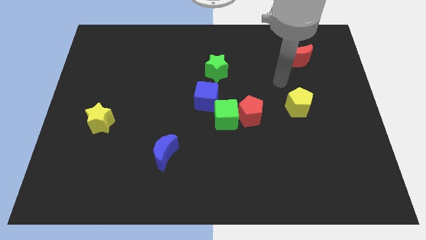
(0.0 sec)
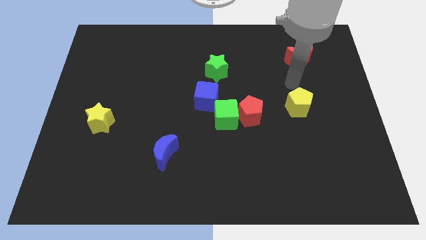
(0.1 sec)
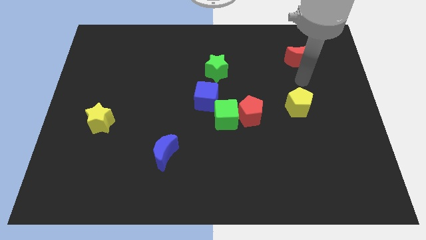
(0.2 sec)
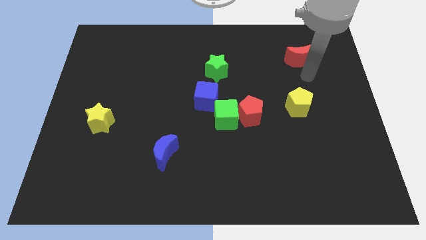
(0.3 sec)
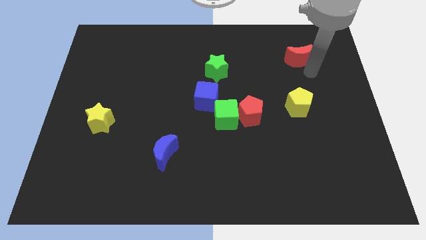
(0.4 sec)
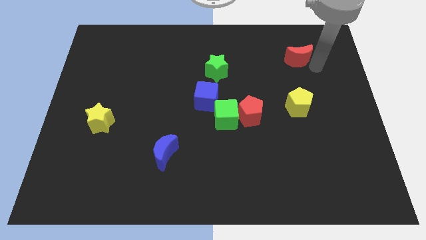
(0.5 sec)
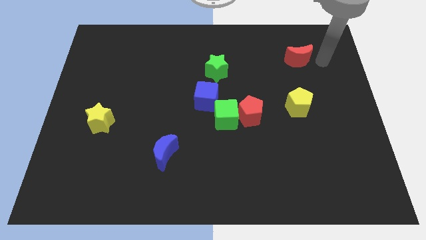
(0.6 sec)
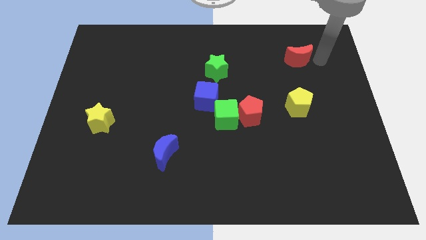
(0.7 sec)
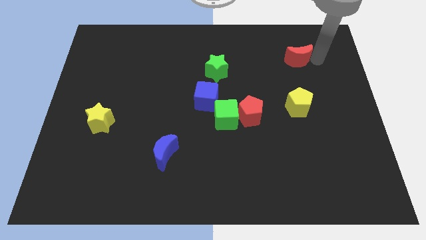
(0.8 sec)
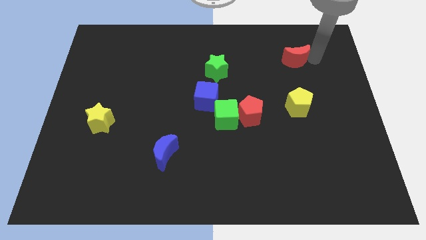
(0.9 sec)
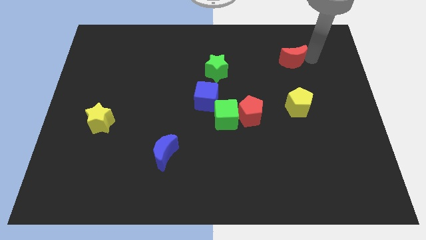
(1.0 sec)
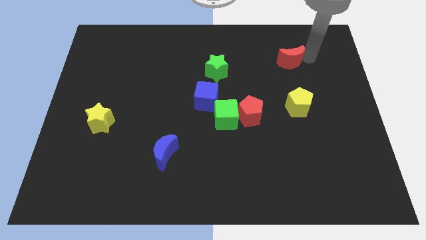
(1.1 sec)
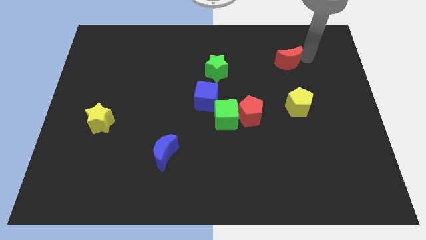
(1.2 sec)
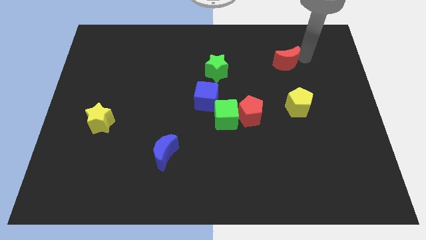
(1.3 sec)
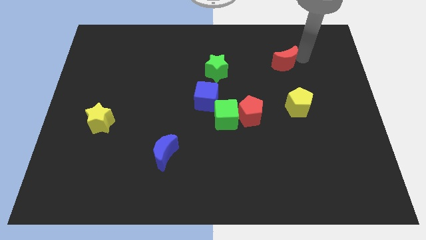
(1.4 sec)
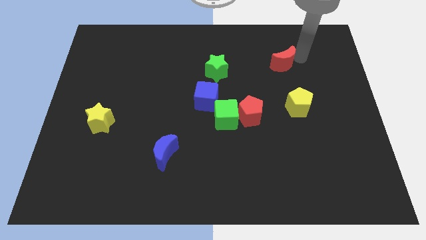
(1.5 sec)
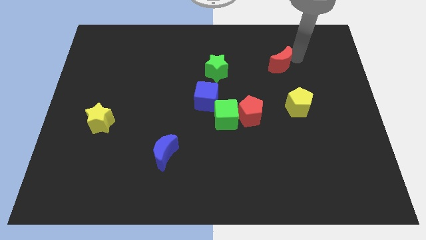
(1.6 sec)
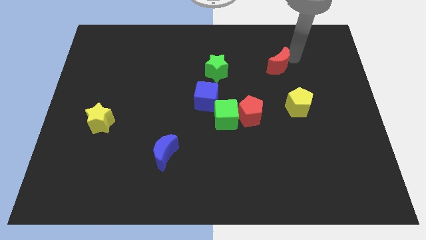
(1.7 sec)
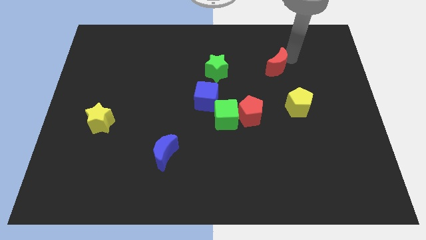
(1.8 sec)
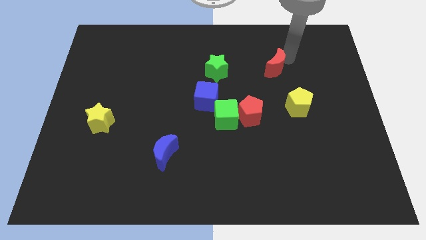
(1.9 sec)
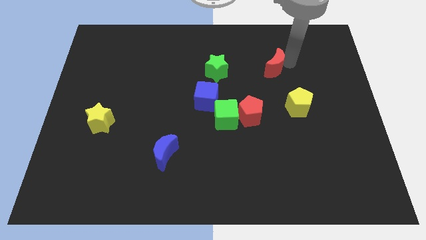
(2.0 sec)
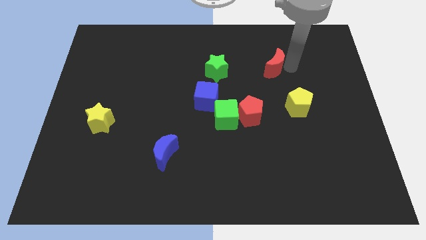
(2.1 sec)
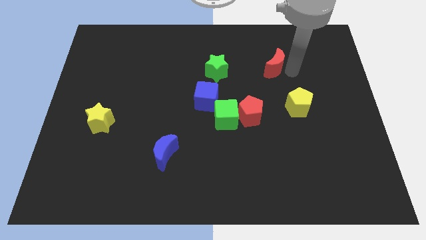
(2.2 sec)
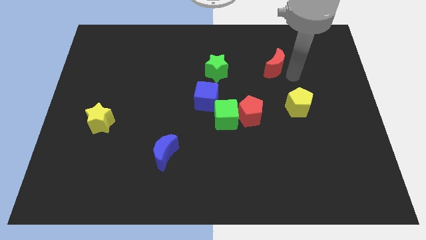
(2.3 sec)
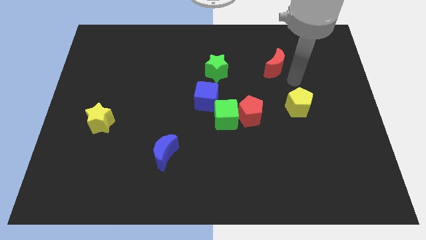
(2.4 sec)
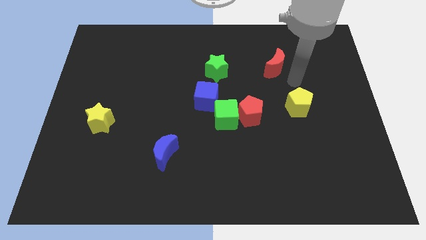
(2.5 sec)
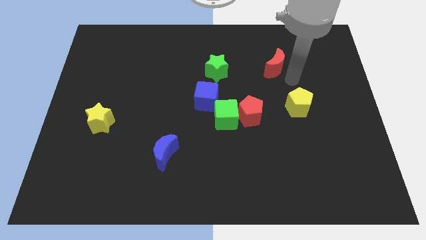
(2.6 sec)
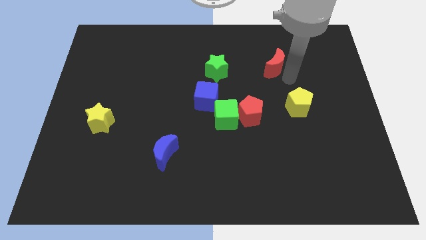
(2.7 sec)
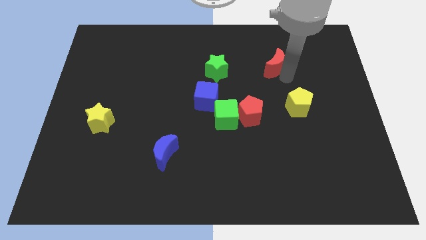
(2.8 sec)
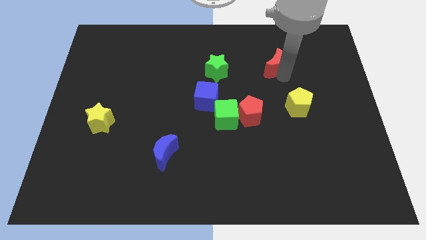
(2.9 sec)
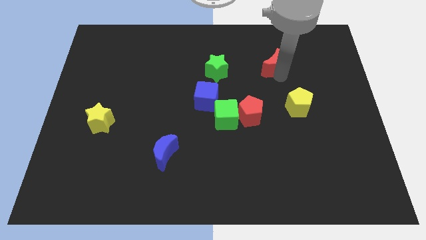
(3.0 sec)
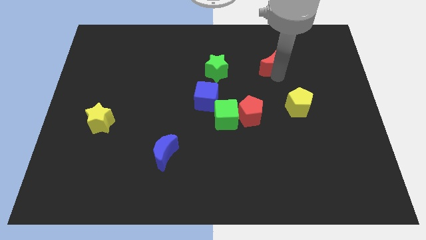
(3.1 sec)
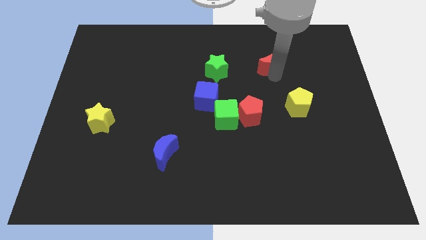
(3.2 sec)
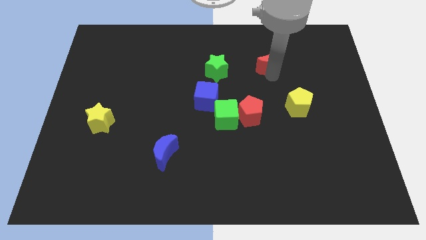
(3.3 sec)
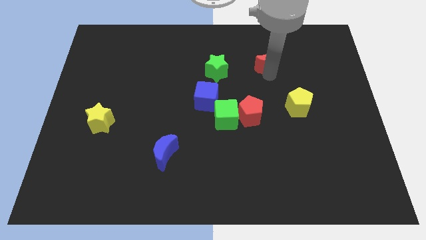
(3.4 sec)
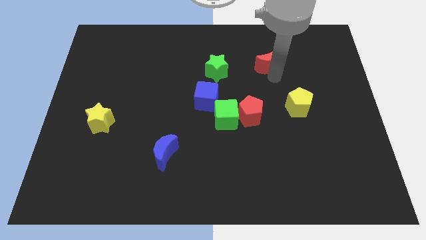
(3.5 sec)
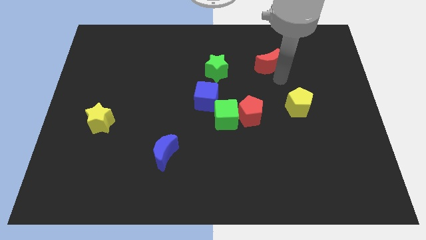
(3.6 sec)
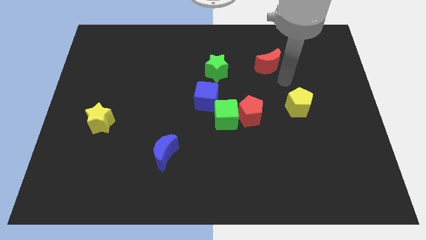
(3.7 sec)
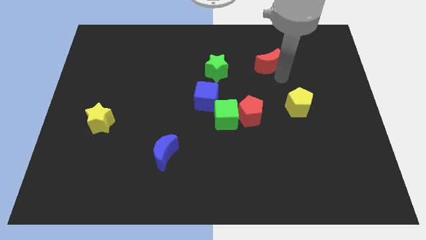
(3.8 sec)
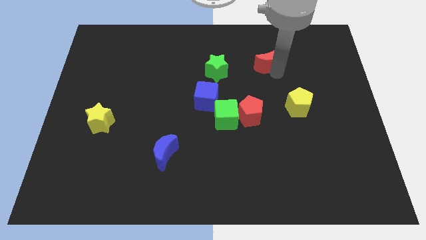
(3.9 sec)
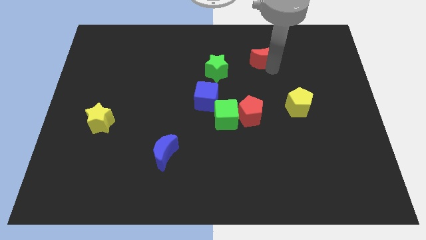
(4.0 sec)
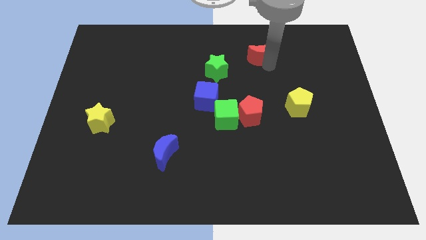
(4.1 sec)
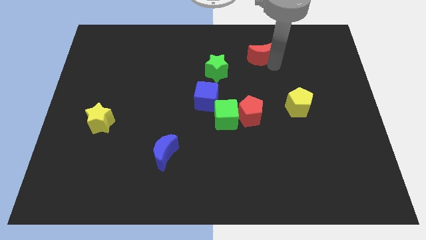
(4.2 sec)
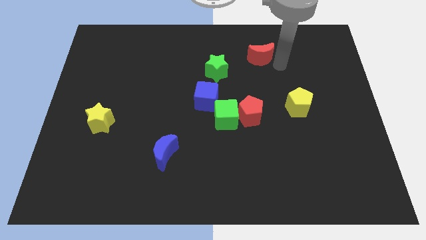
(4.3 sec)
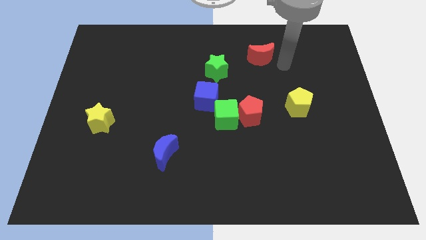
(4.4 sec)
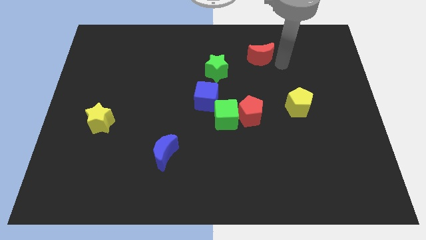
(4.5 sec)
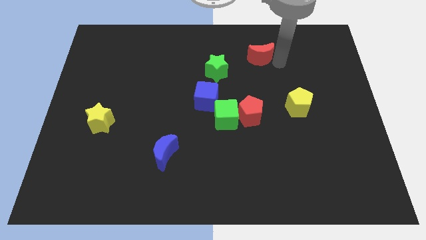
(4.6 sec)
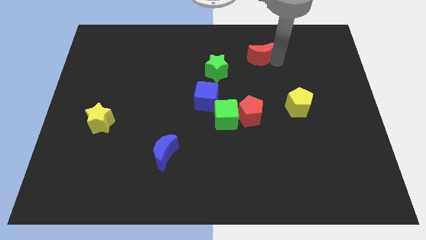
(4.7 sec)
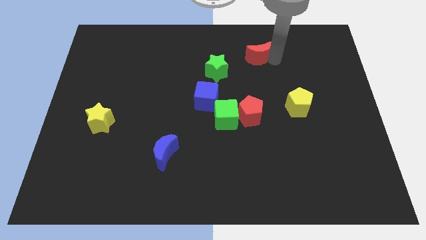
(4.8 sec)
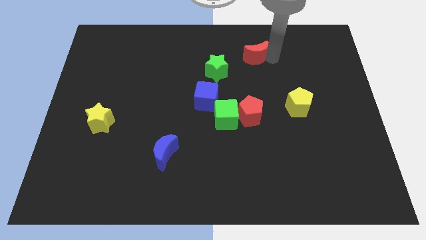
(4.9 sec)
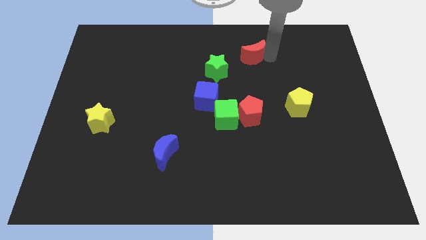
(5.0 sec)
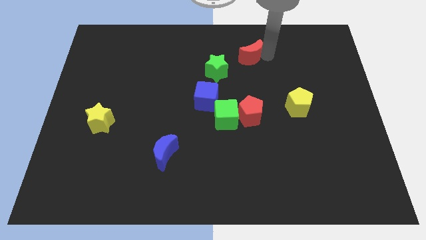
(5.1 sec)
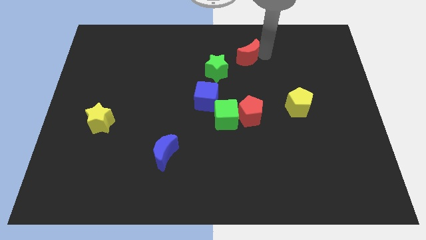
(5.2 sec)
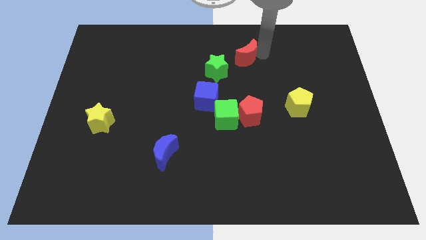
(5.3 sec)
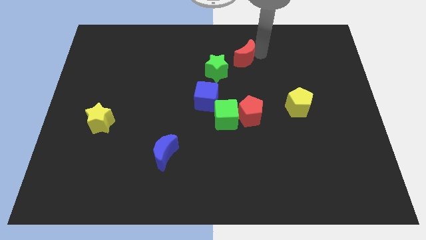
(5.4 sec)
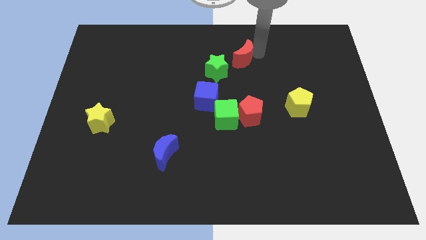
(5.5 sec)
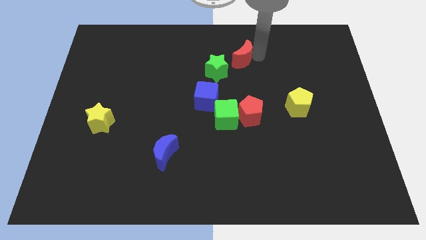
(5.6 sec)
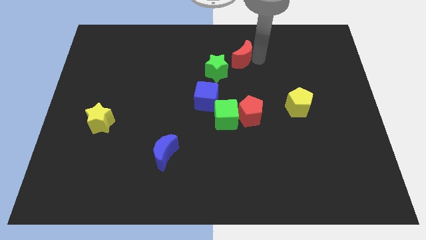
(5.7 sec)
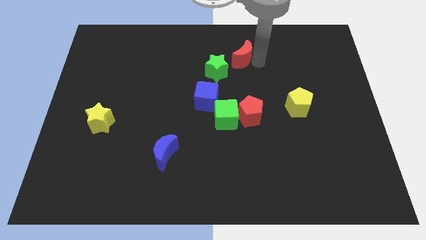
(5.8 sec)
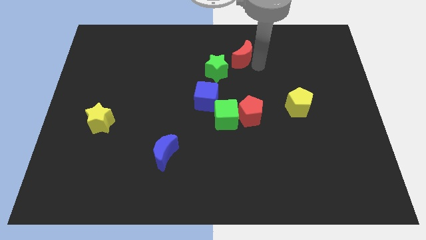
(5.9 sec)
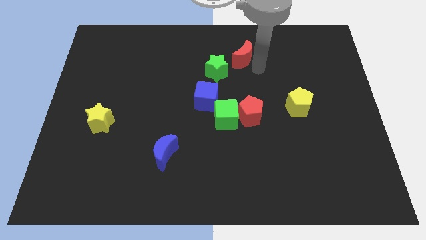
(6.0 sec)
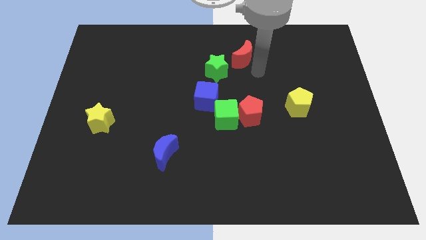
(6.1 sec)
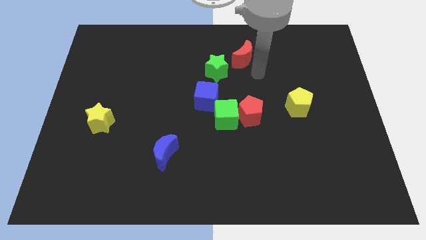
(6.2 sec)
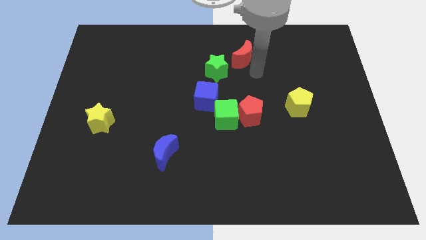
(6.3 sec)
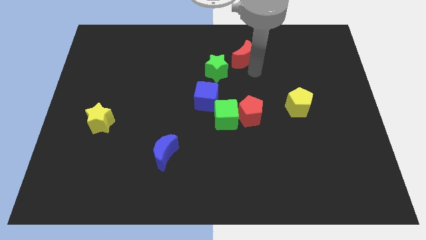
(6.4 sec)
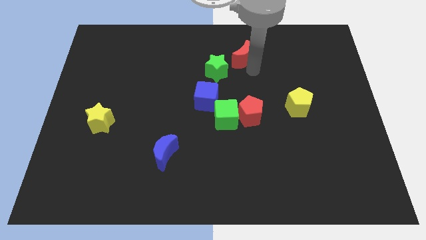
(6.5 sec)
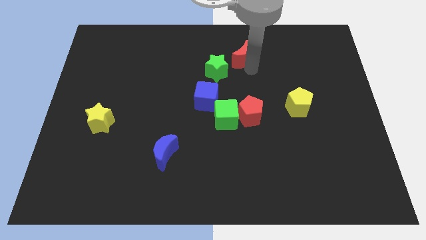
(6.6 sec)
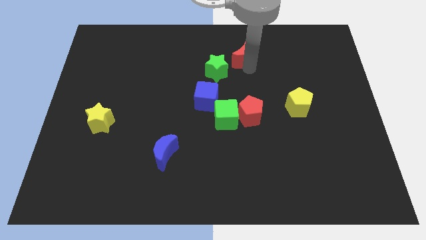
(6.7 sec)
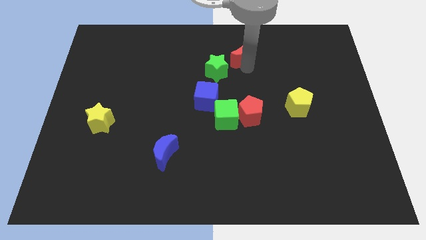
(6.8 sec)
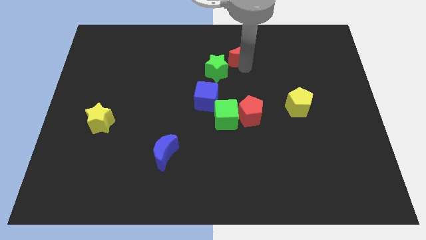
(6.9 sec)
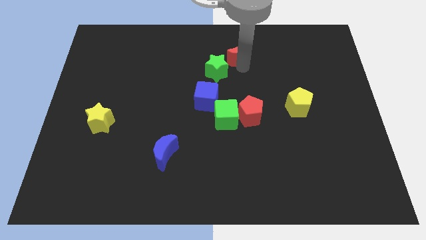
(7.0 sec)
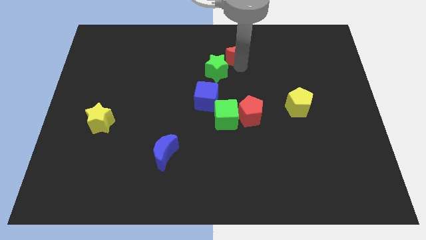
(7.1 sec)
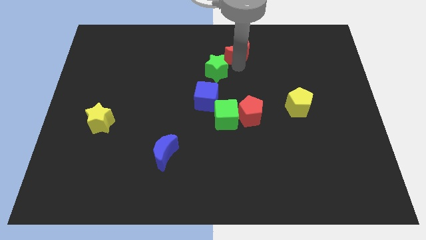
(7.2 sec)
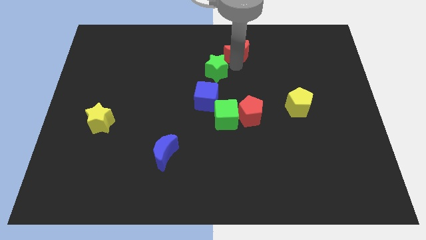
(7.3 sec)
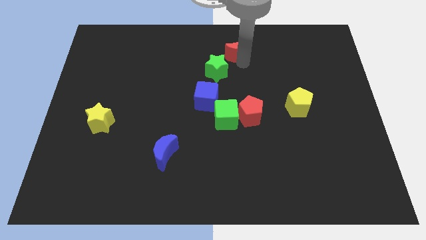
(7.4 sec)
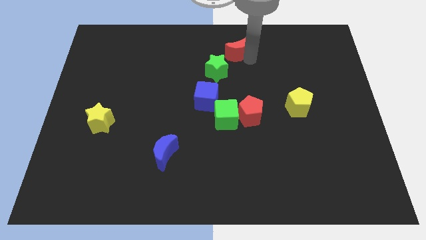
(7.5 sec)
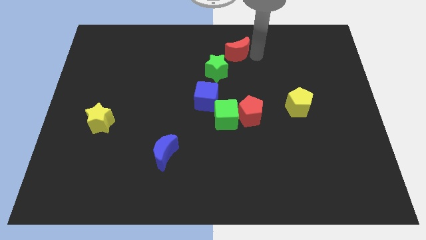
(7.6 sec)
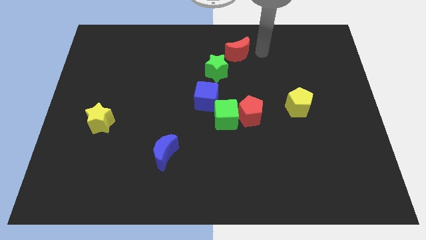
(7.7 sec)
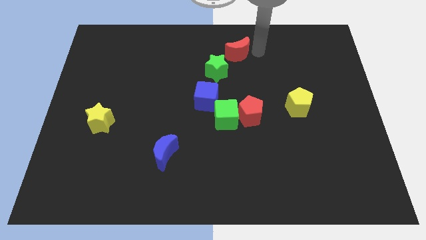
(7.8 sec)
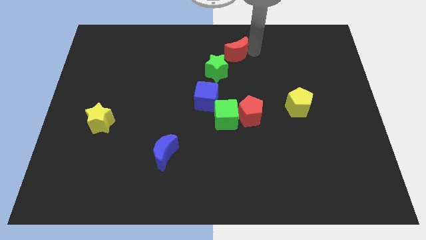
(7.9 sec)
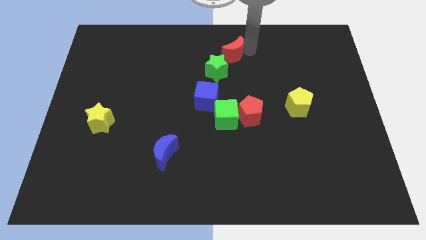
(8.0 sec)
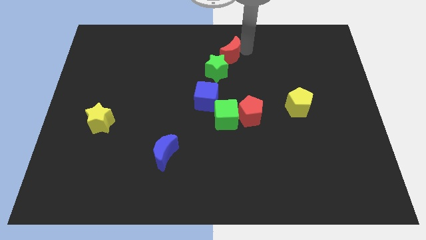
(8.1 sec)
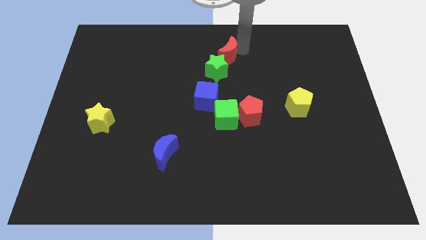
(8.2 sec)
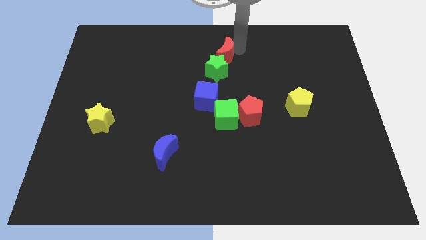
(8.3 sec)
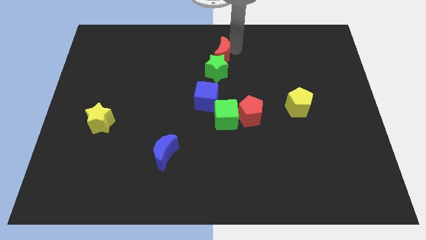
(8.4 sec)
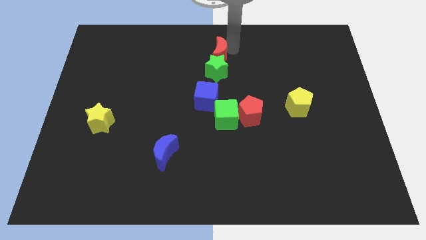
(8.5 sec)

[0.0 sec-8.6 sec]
put the red moon to the top left of the green star
